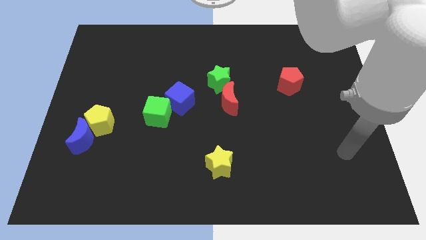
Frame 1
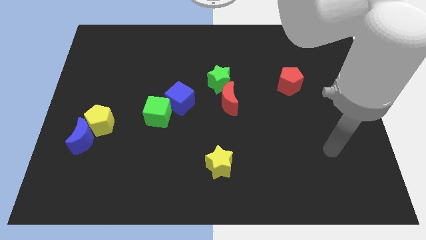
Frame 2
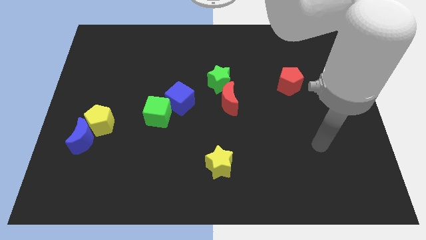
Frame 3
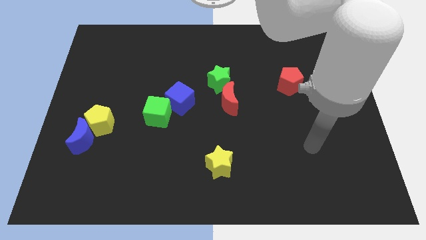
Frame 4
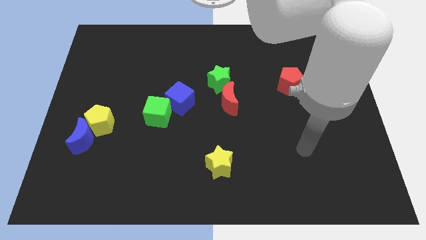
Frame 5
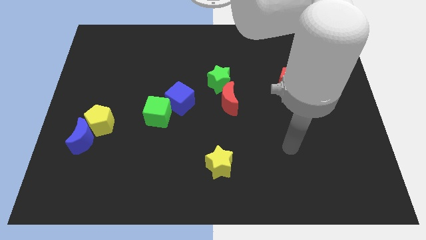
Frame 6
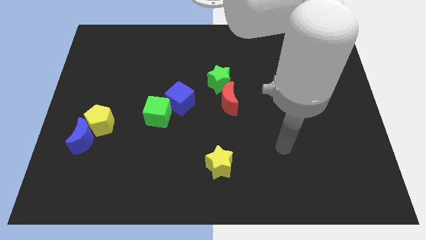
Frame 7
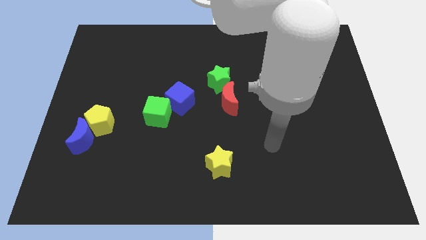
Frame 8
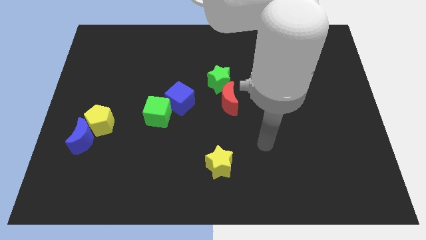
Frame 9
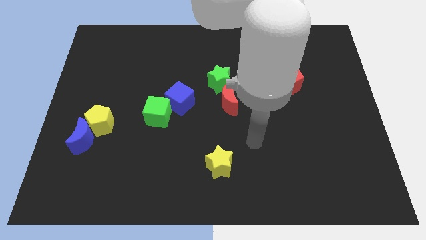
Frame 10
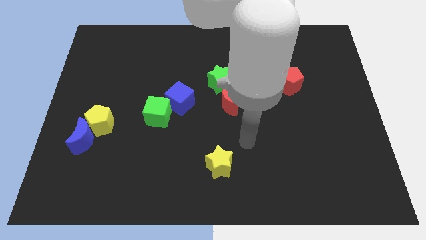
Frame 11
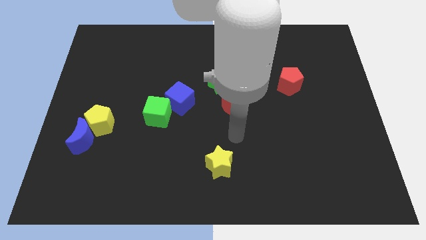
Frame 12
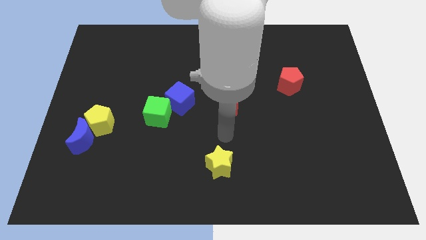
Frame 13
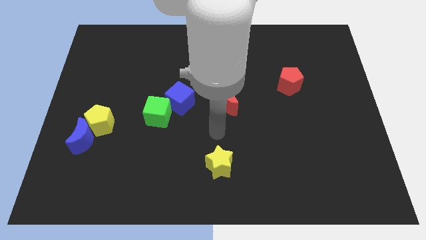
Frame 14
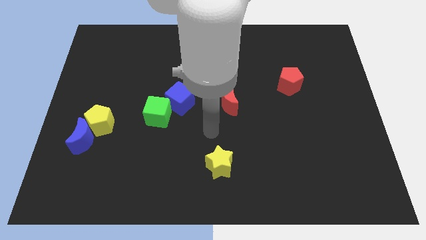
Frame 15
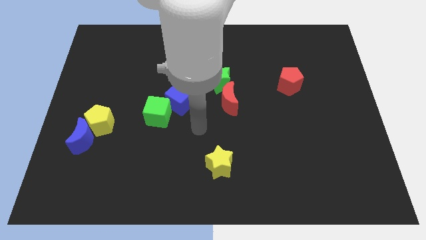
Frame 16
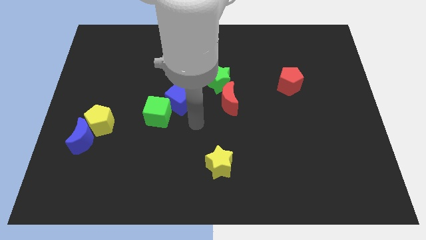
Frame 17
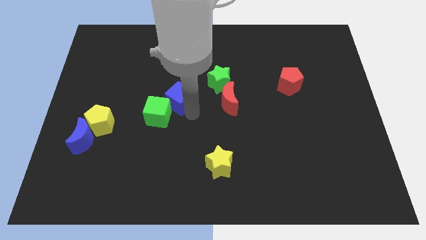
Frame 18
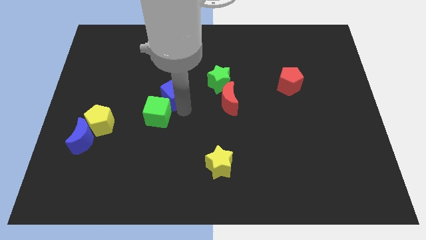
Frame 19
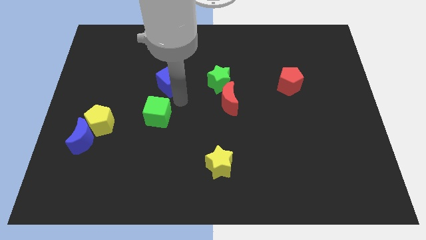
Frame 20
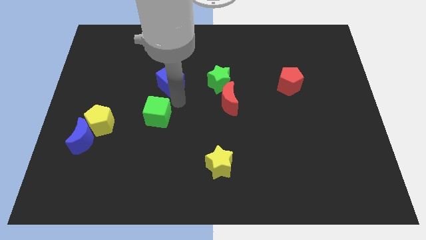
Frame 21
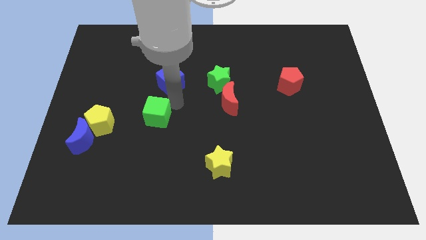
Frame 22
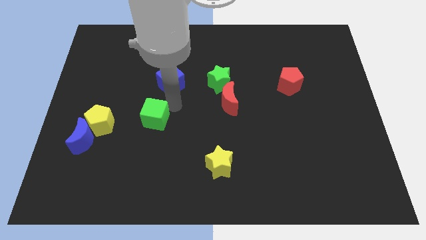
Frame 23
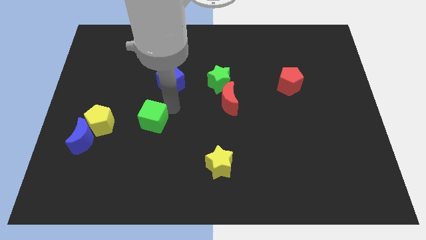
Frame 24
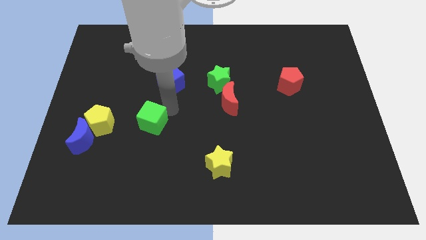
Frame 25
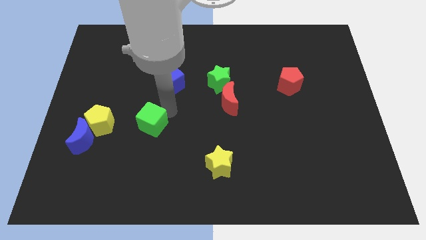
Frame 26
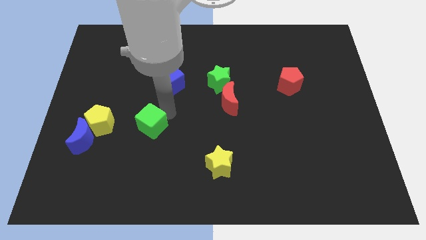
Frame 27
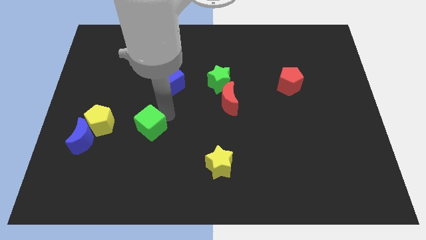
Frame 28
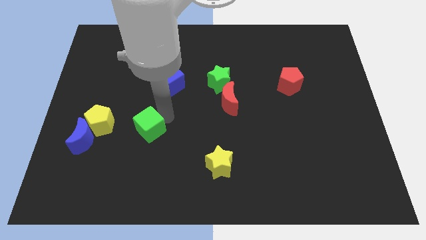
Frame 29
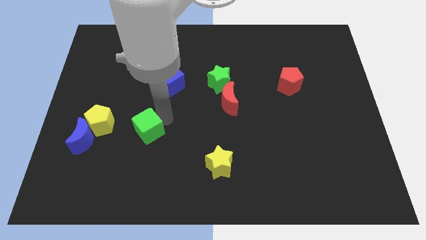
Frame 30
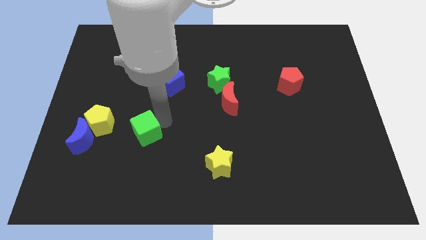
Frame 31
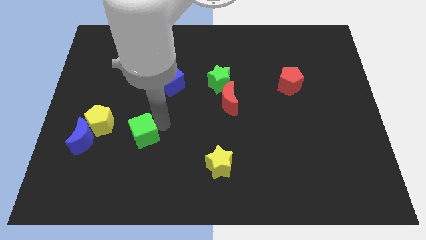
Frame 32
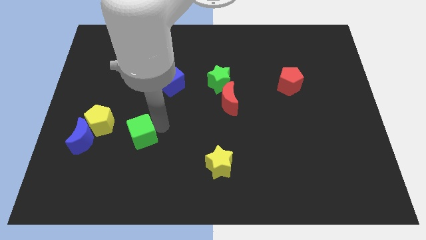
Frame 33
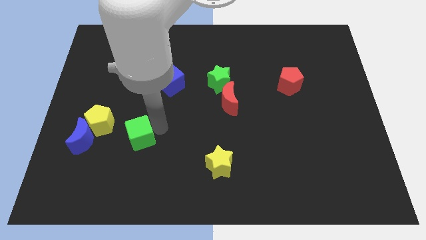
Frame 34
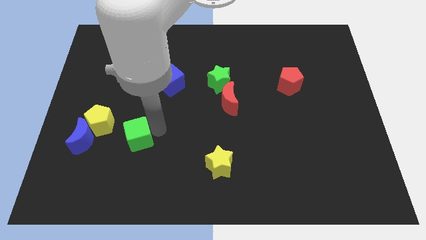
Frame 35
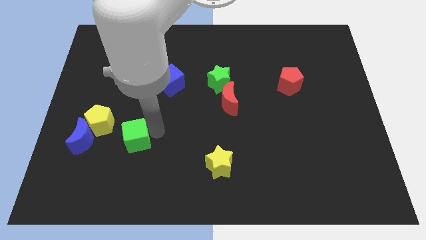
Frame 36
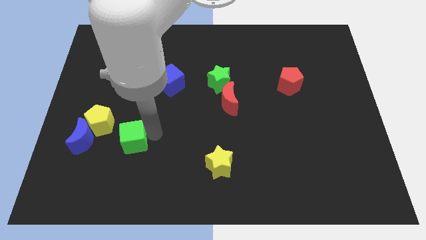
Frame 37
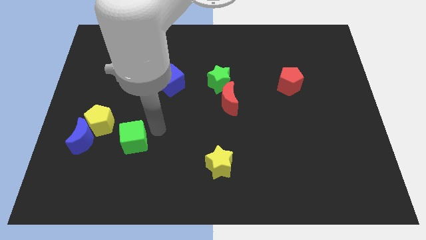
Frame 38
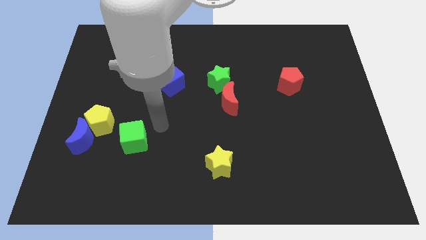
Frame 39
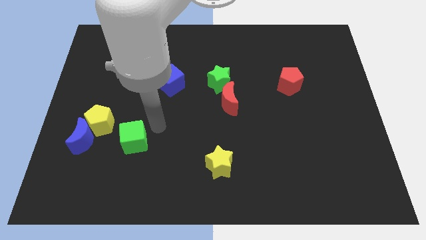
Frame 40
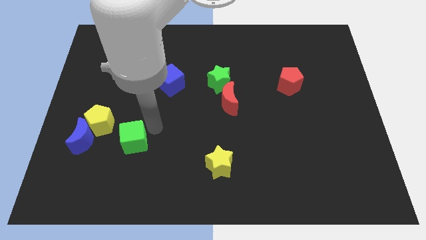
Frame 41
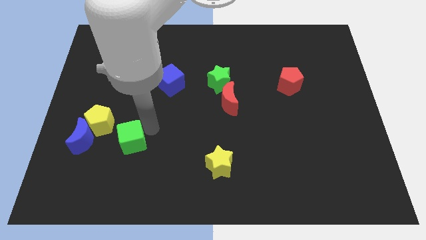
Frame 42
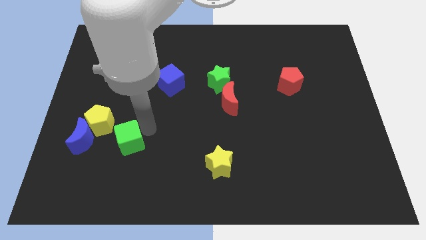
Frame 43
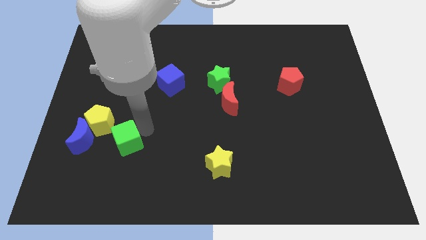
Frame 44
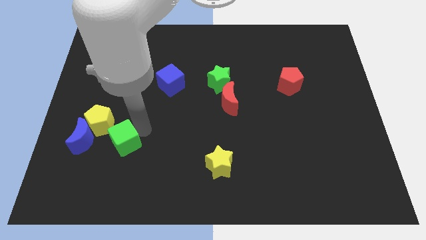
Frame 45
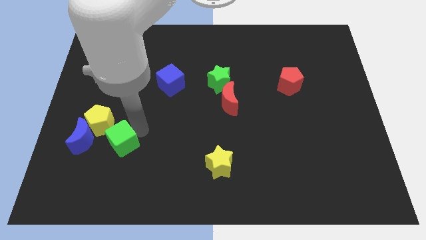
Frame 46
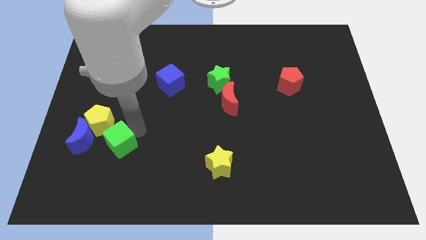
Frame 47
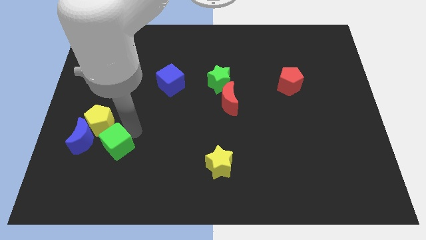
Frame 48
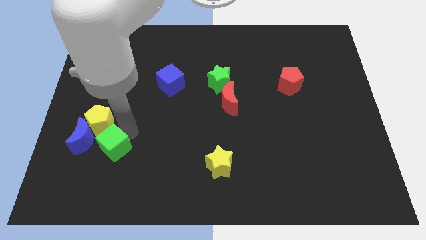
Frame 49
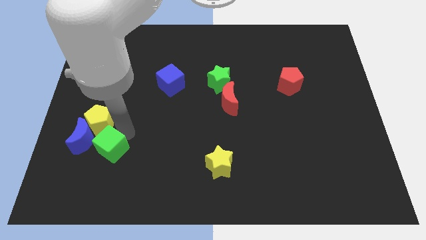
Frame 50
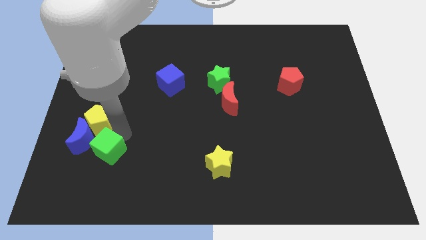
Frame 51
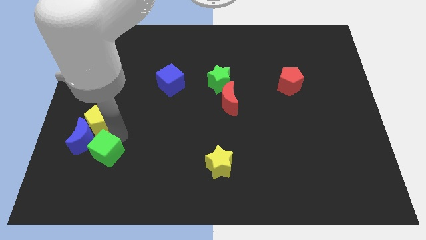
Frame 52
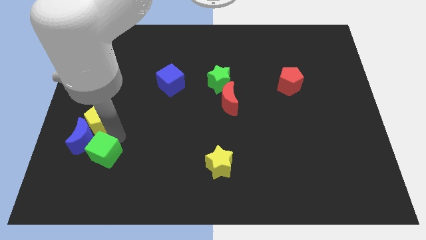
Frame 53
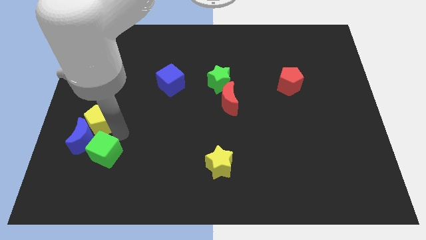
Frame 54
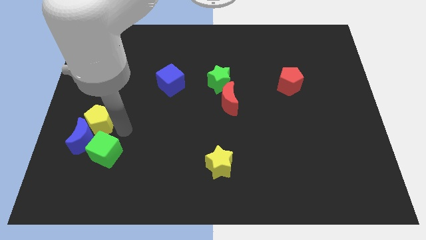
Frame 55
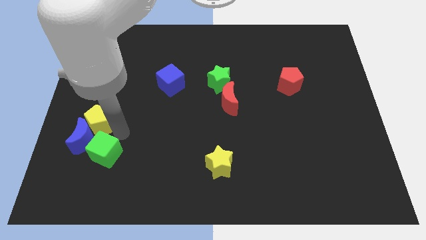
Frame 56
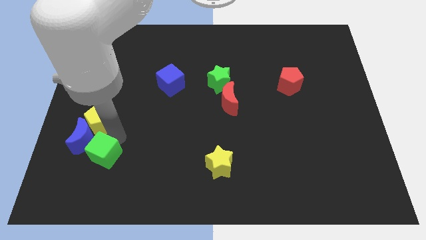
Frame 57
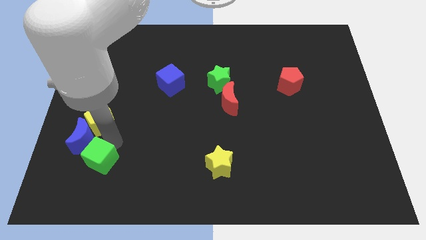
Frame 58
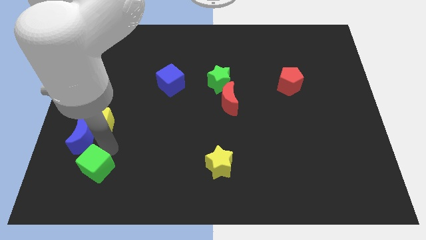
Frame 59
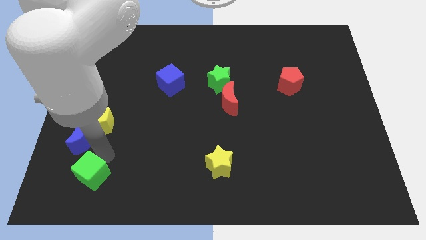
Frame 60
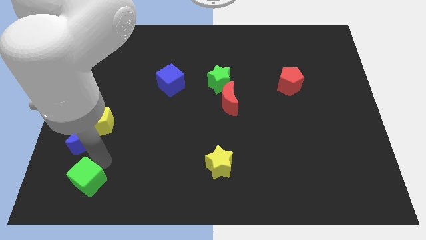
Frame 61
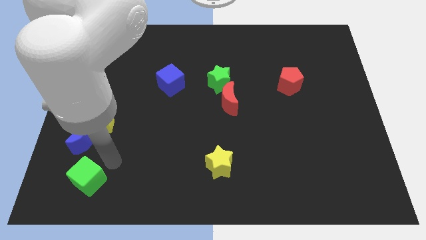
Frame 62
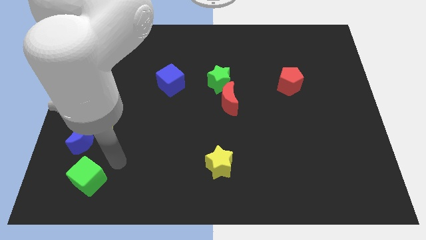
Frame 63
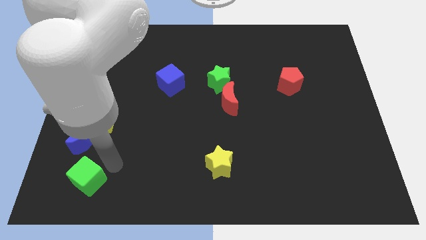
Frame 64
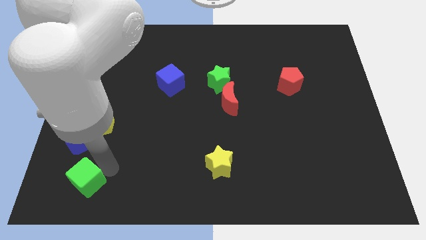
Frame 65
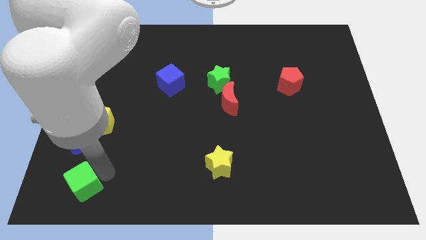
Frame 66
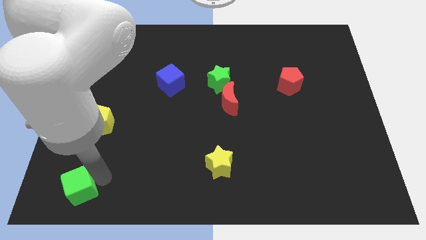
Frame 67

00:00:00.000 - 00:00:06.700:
slide the green cube to the bottom left of the board
